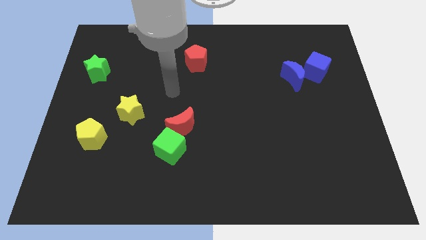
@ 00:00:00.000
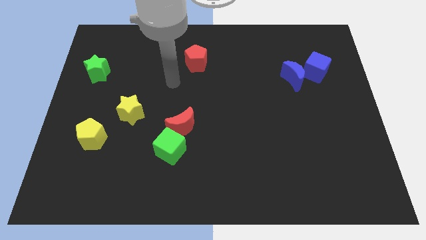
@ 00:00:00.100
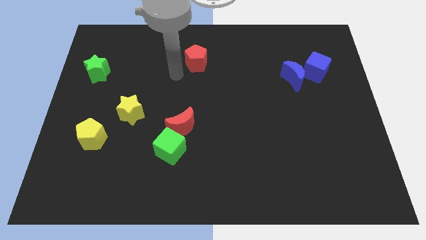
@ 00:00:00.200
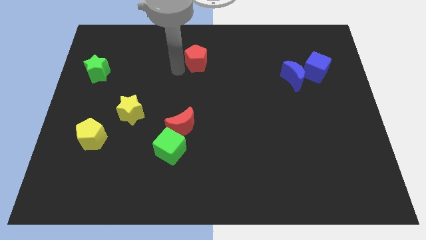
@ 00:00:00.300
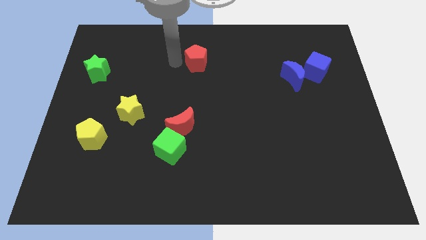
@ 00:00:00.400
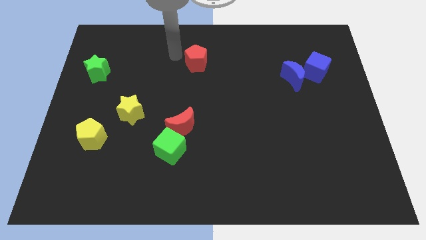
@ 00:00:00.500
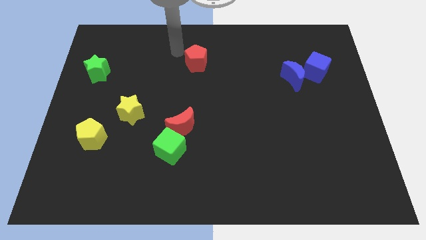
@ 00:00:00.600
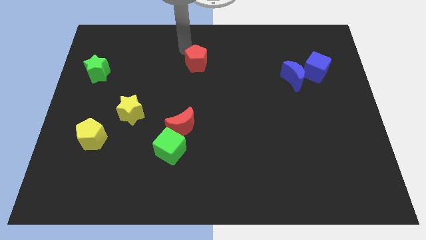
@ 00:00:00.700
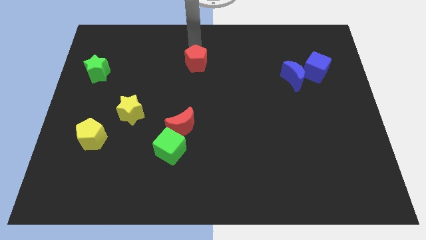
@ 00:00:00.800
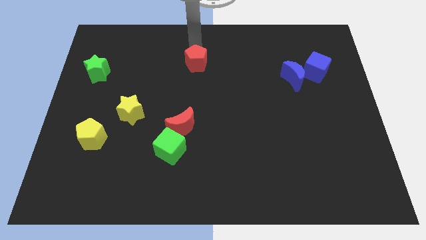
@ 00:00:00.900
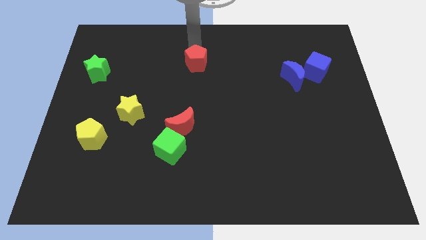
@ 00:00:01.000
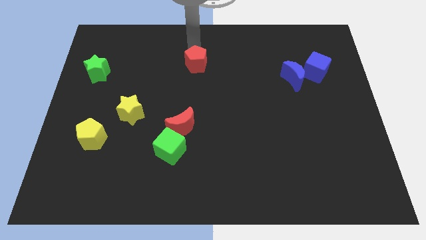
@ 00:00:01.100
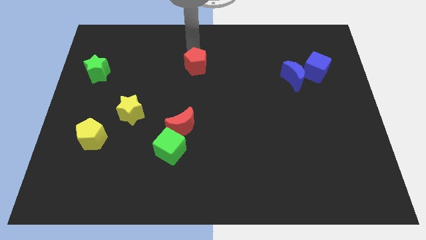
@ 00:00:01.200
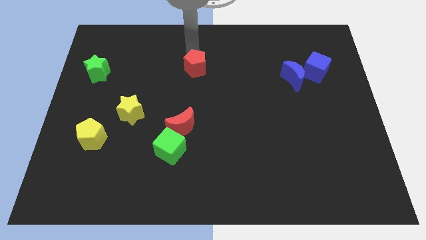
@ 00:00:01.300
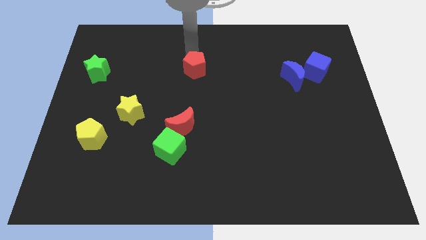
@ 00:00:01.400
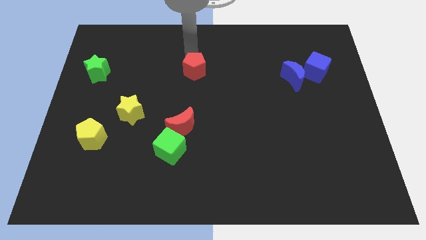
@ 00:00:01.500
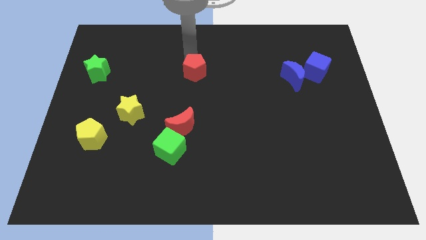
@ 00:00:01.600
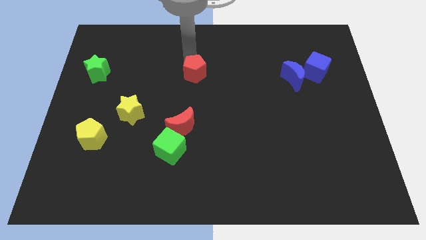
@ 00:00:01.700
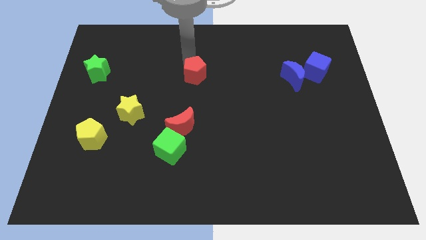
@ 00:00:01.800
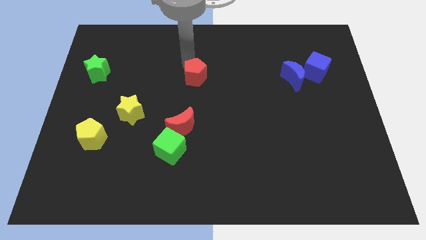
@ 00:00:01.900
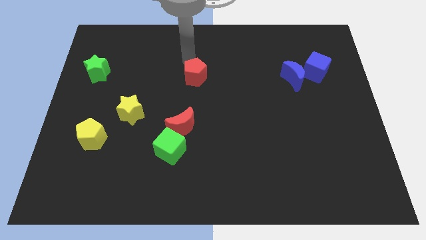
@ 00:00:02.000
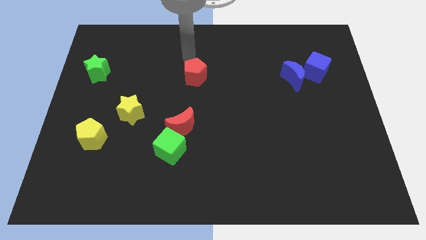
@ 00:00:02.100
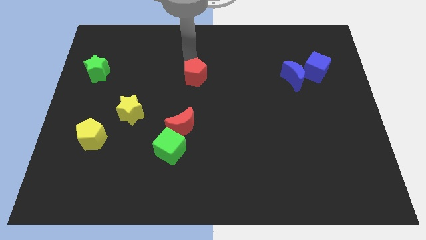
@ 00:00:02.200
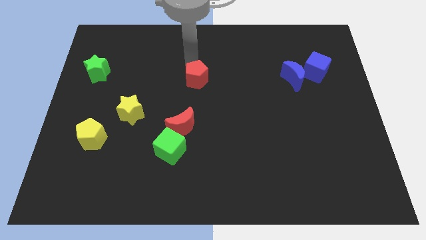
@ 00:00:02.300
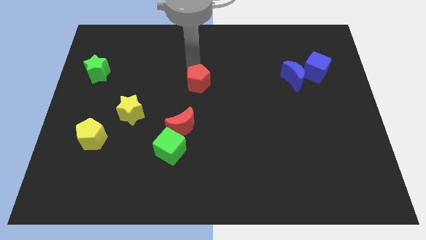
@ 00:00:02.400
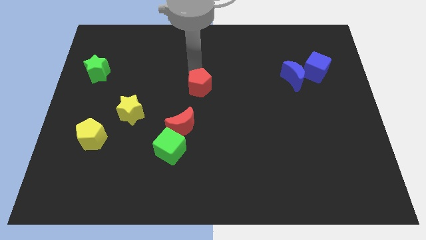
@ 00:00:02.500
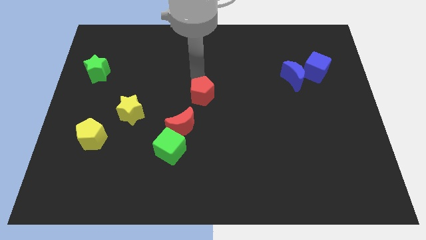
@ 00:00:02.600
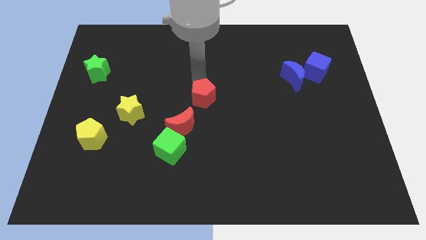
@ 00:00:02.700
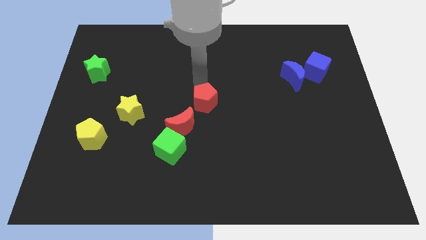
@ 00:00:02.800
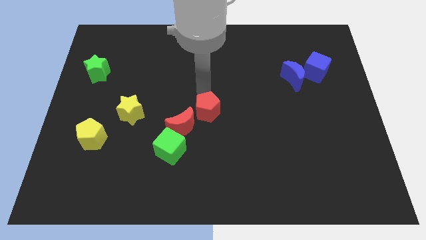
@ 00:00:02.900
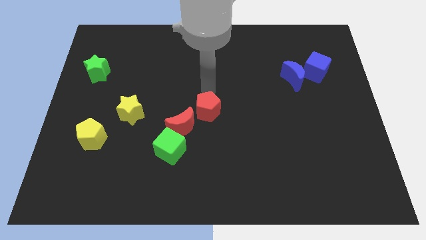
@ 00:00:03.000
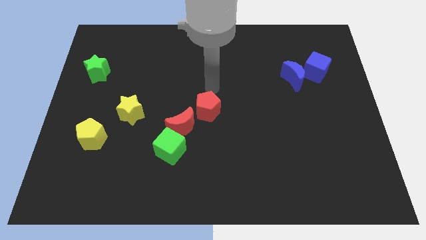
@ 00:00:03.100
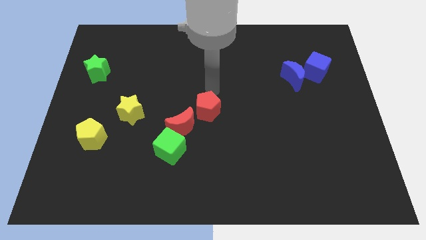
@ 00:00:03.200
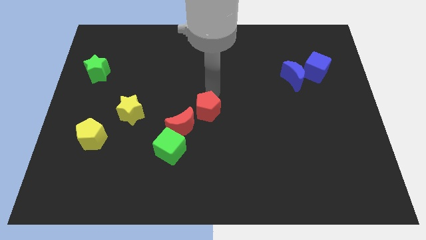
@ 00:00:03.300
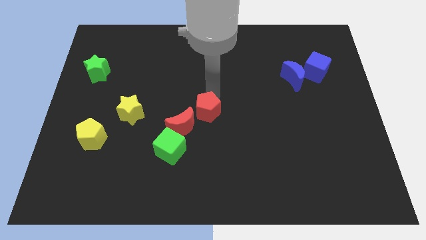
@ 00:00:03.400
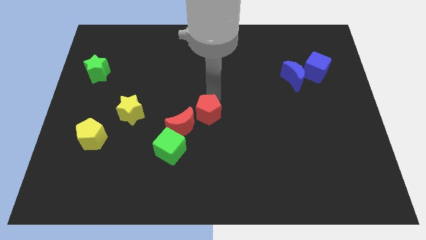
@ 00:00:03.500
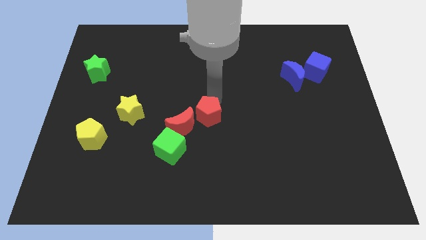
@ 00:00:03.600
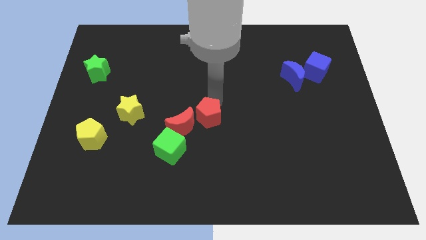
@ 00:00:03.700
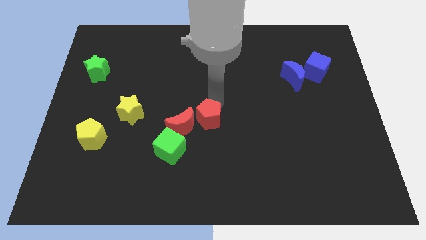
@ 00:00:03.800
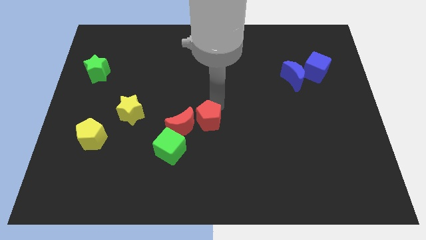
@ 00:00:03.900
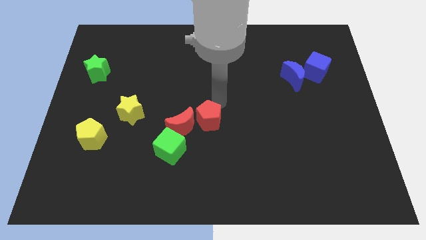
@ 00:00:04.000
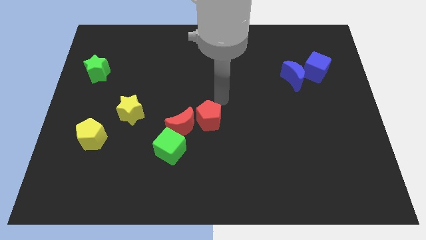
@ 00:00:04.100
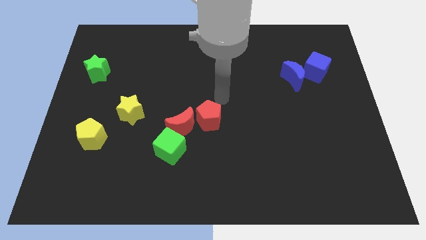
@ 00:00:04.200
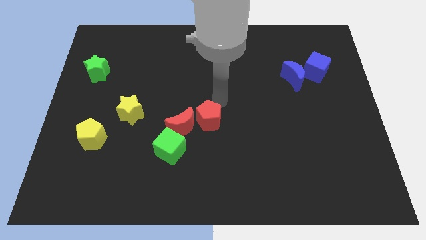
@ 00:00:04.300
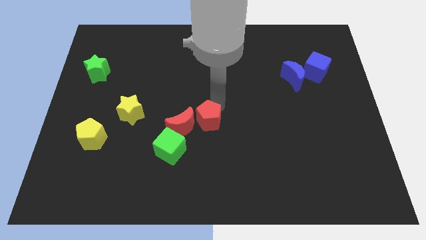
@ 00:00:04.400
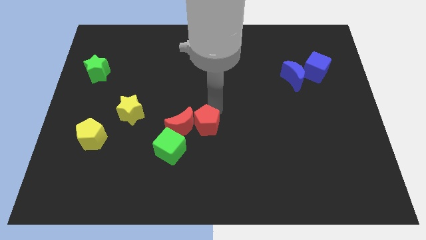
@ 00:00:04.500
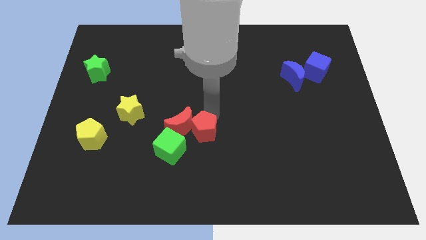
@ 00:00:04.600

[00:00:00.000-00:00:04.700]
move the red pentagon down

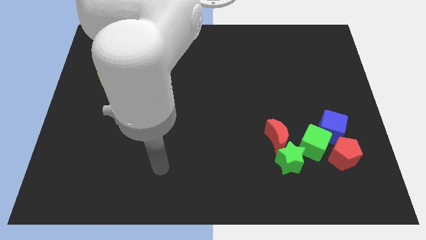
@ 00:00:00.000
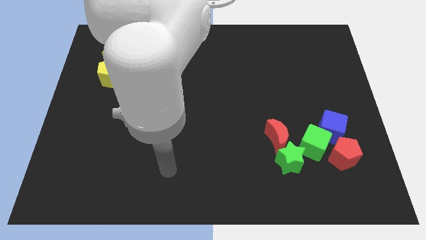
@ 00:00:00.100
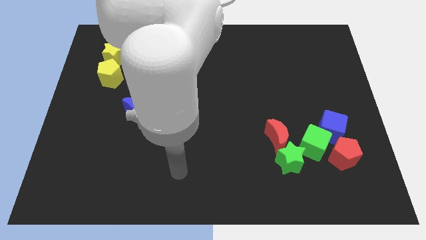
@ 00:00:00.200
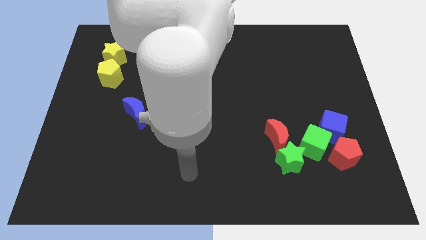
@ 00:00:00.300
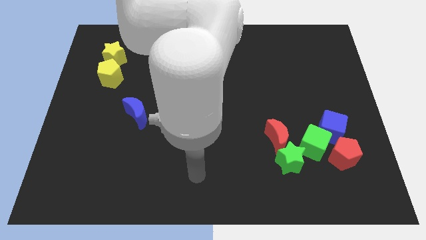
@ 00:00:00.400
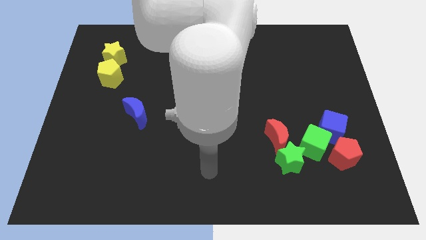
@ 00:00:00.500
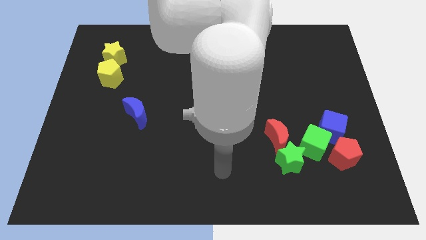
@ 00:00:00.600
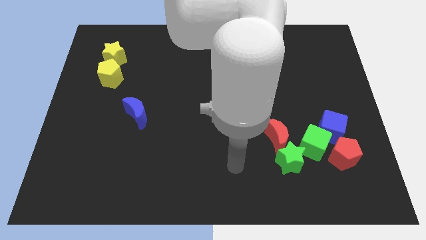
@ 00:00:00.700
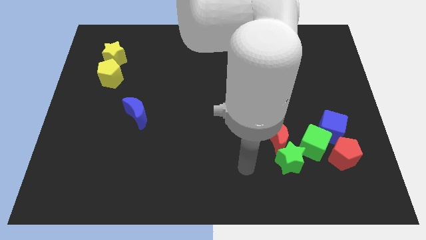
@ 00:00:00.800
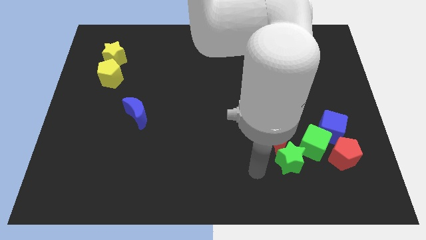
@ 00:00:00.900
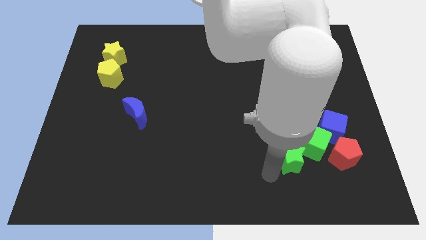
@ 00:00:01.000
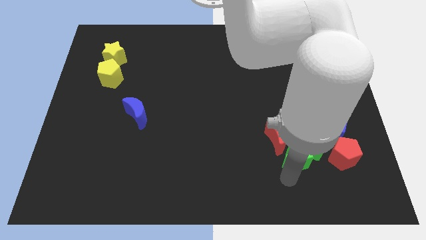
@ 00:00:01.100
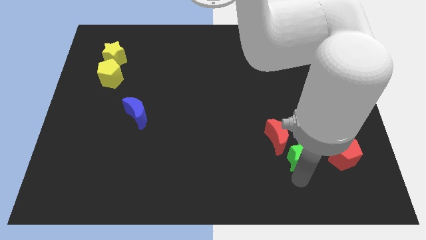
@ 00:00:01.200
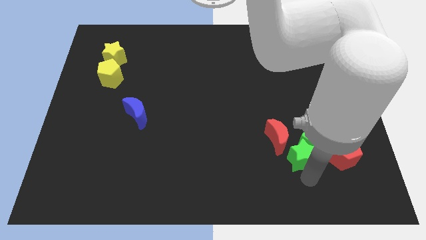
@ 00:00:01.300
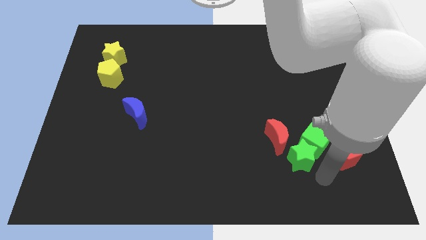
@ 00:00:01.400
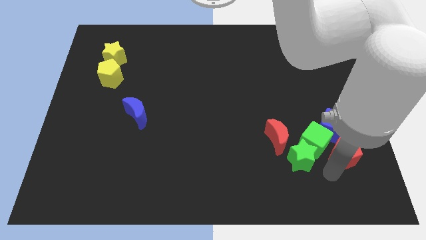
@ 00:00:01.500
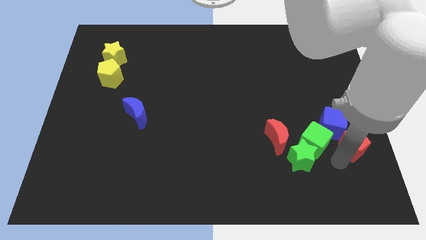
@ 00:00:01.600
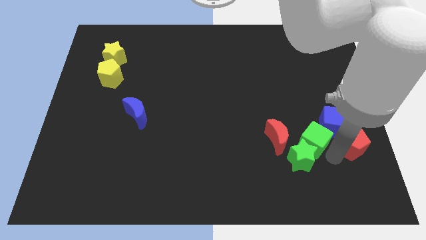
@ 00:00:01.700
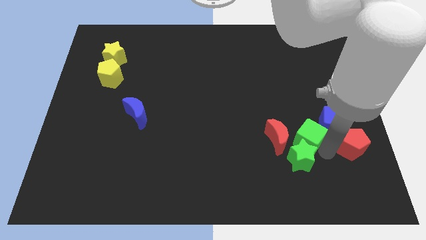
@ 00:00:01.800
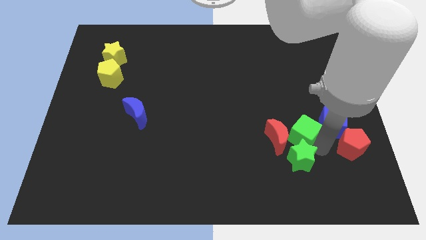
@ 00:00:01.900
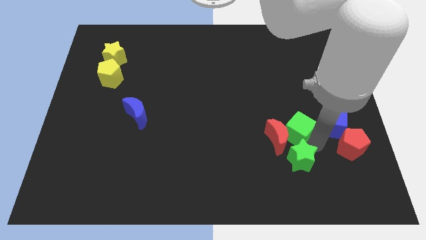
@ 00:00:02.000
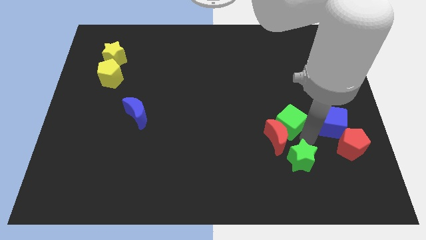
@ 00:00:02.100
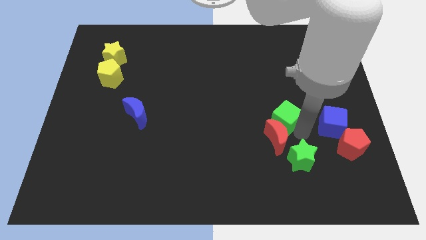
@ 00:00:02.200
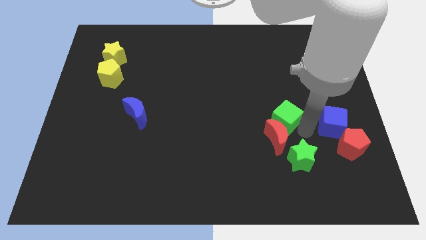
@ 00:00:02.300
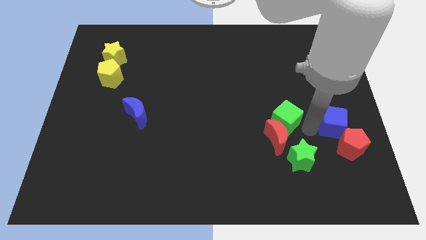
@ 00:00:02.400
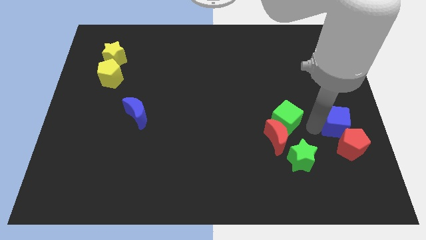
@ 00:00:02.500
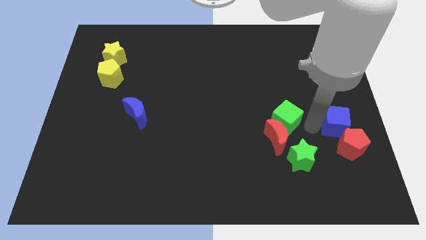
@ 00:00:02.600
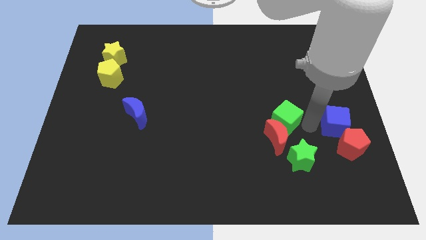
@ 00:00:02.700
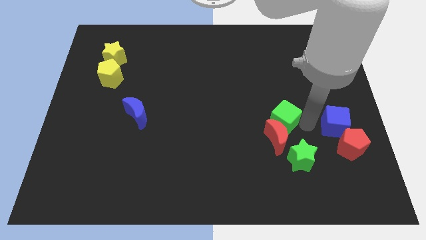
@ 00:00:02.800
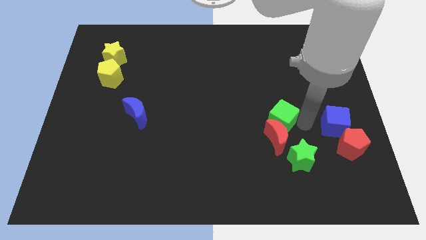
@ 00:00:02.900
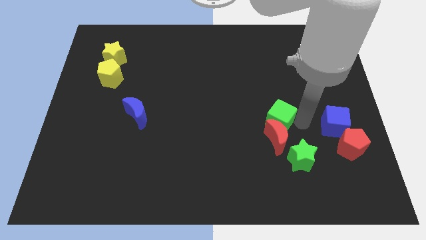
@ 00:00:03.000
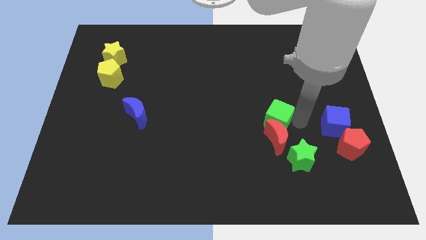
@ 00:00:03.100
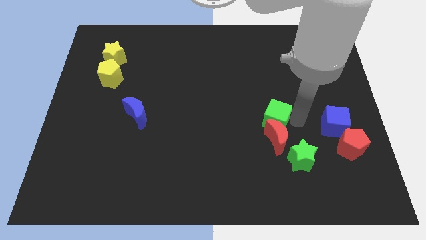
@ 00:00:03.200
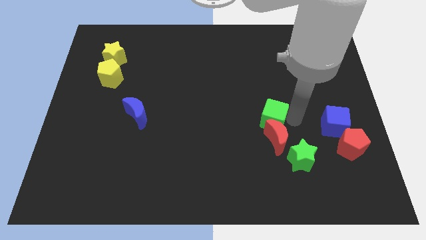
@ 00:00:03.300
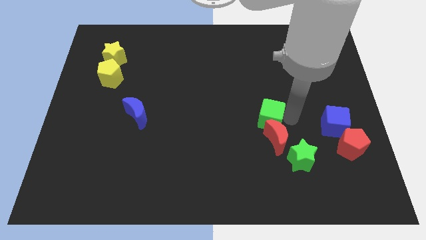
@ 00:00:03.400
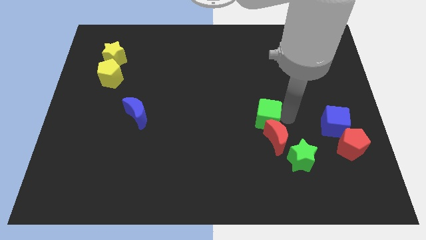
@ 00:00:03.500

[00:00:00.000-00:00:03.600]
slide the green cube to the left somewhat
